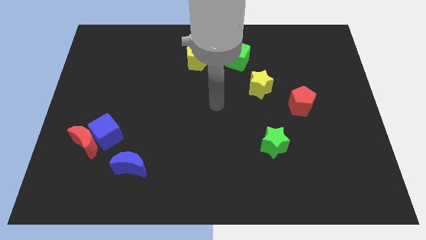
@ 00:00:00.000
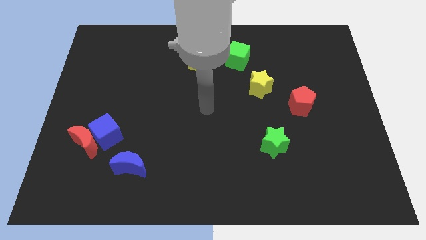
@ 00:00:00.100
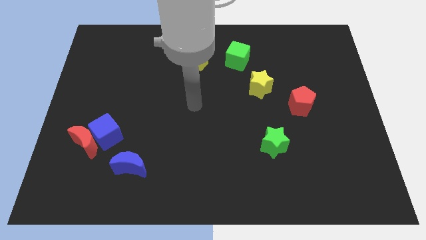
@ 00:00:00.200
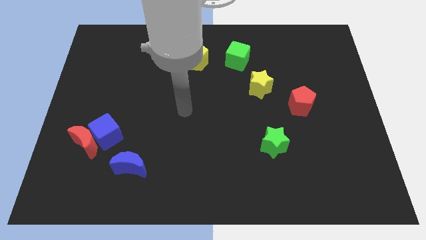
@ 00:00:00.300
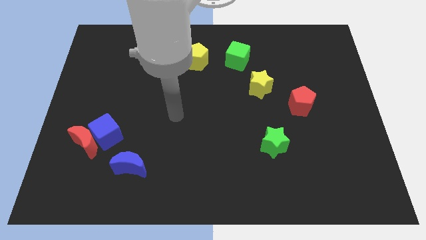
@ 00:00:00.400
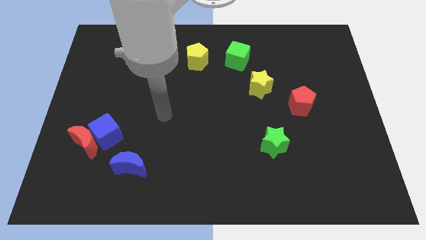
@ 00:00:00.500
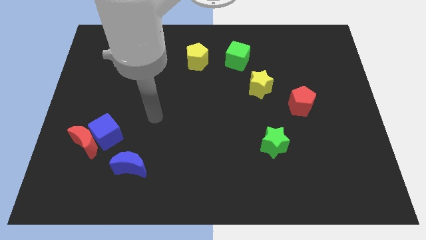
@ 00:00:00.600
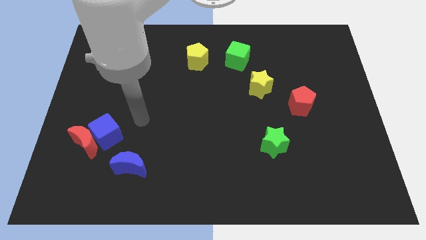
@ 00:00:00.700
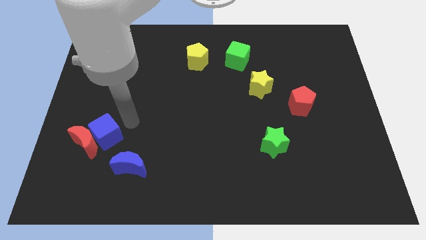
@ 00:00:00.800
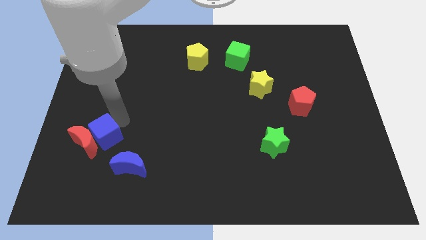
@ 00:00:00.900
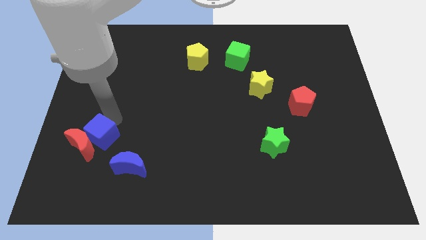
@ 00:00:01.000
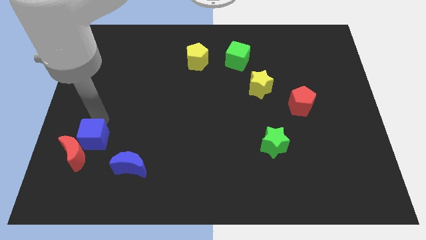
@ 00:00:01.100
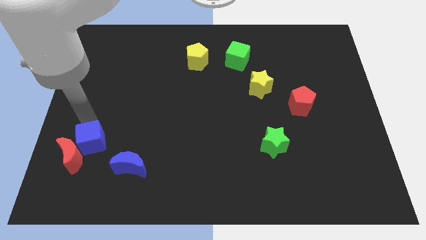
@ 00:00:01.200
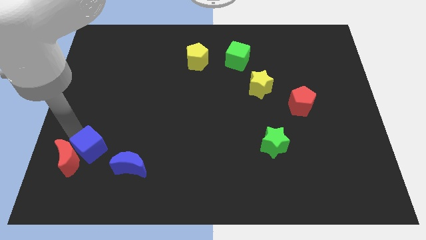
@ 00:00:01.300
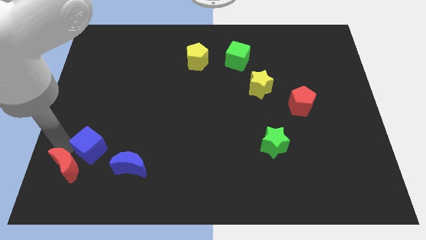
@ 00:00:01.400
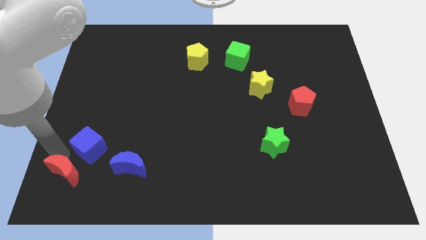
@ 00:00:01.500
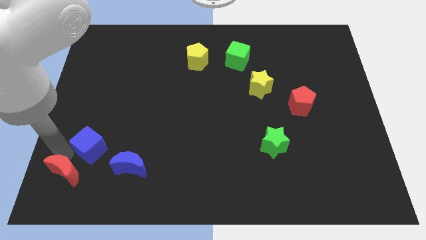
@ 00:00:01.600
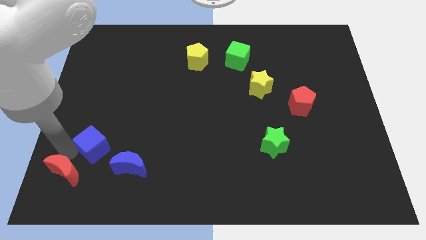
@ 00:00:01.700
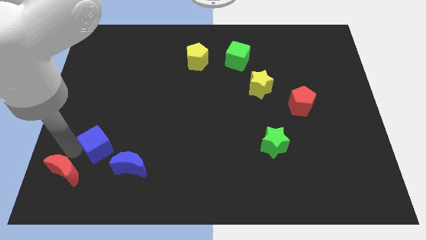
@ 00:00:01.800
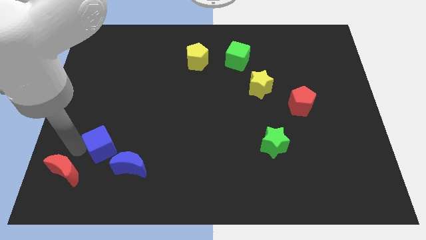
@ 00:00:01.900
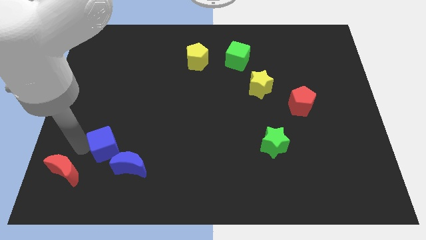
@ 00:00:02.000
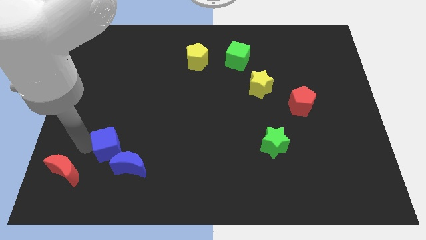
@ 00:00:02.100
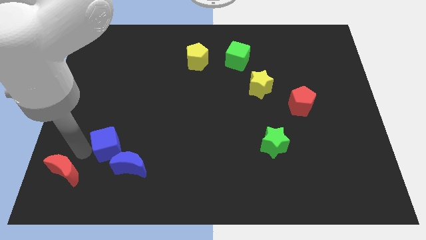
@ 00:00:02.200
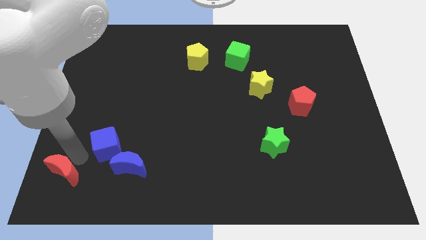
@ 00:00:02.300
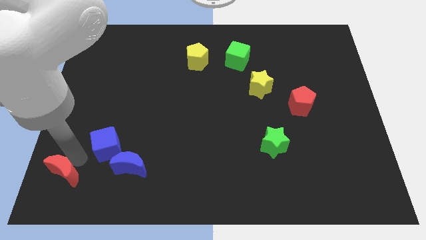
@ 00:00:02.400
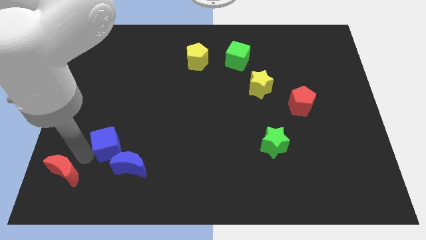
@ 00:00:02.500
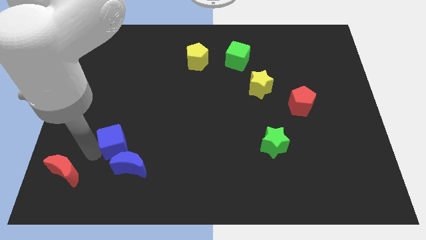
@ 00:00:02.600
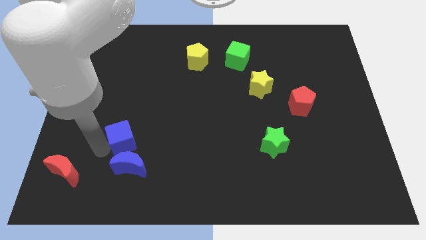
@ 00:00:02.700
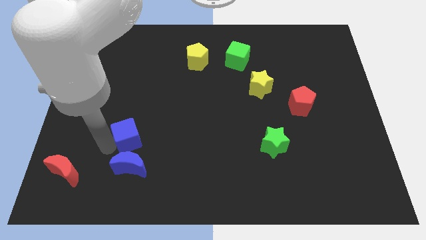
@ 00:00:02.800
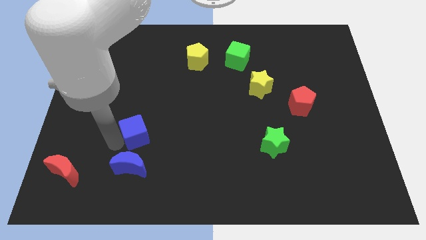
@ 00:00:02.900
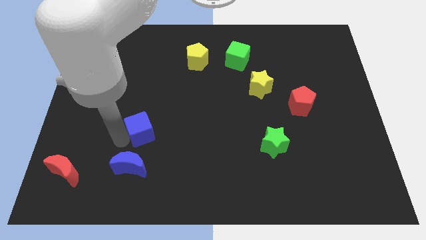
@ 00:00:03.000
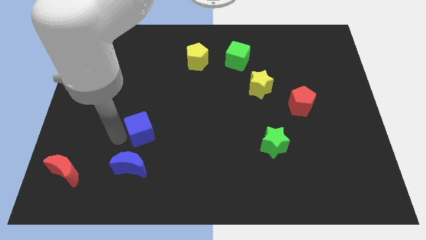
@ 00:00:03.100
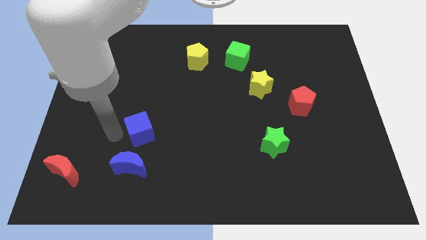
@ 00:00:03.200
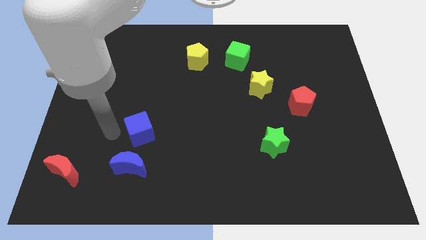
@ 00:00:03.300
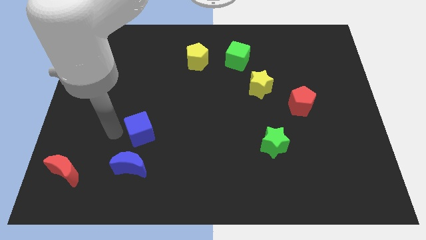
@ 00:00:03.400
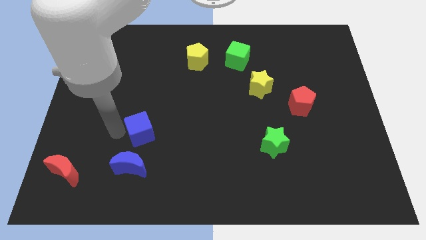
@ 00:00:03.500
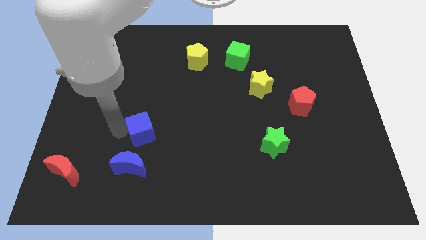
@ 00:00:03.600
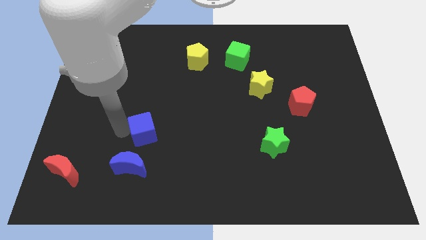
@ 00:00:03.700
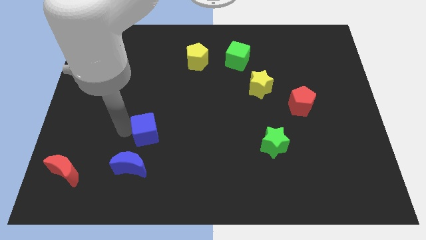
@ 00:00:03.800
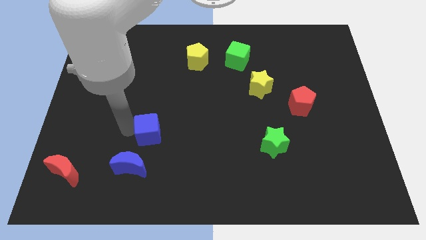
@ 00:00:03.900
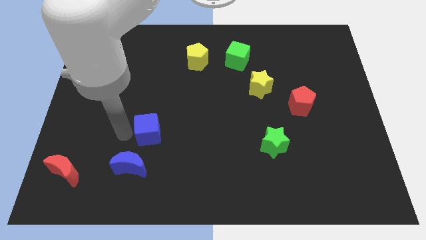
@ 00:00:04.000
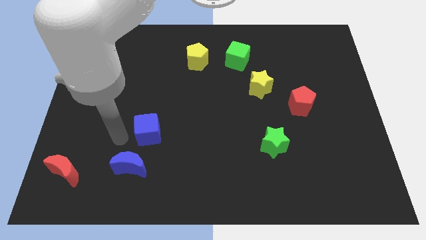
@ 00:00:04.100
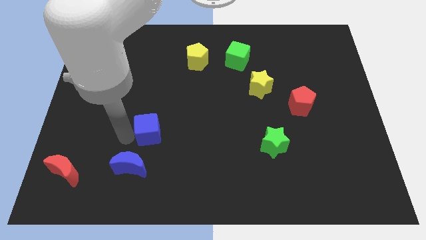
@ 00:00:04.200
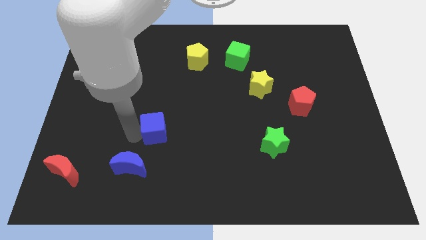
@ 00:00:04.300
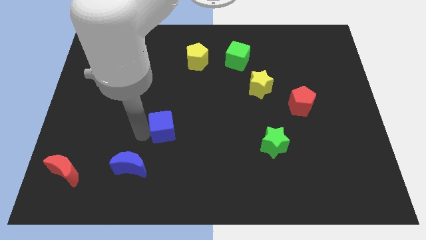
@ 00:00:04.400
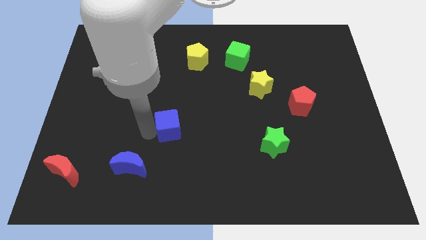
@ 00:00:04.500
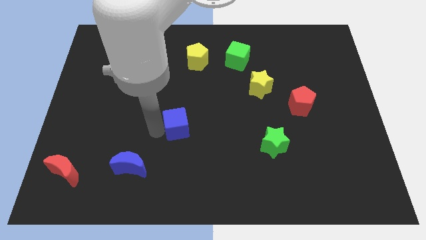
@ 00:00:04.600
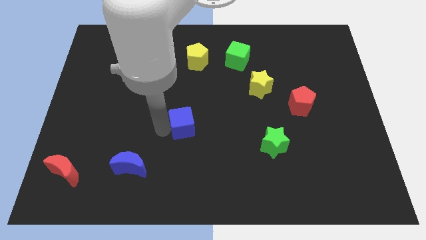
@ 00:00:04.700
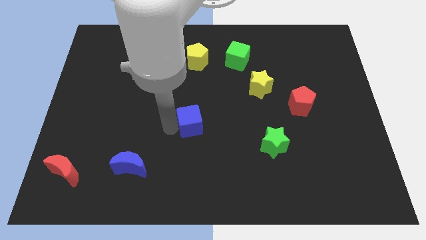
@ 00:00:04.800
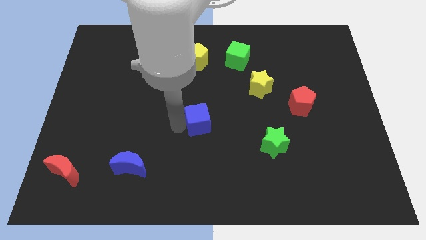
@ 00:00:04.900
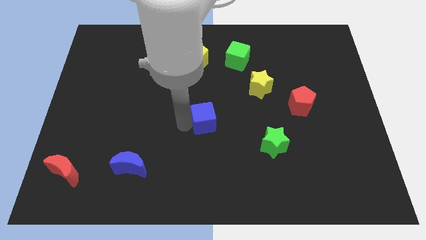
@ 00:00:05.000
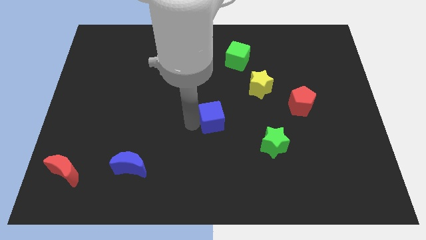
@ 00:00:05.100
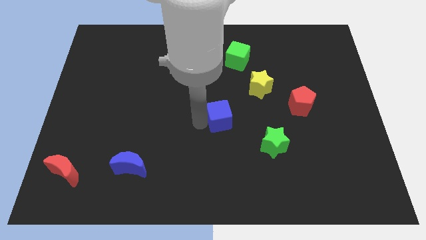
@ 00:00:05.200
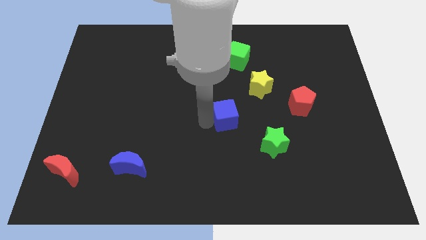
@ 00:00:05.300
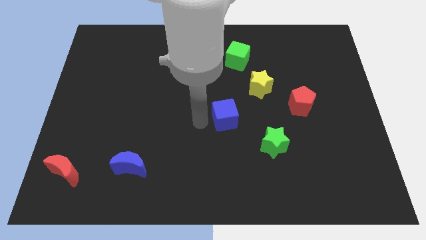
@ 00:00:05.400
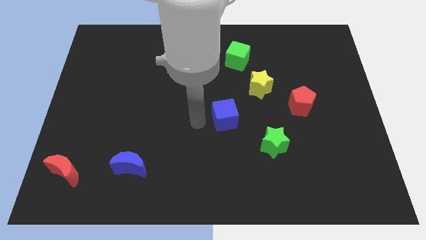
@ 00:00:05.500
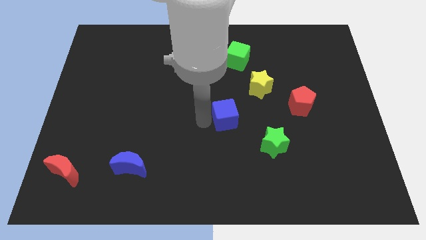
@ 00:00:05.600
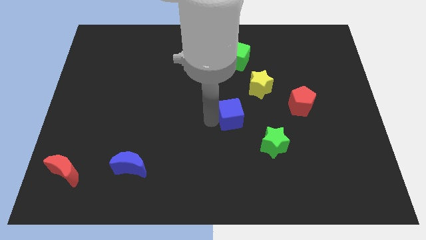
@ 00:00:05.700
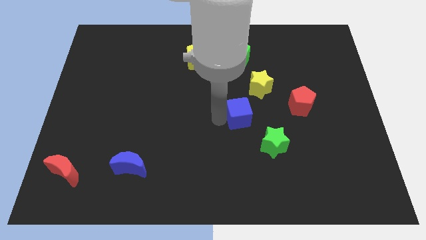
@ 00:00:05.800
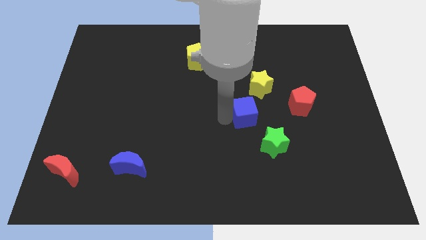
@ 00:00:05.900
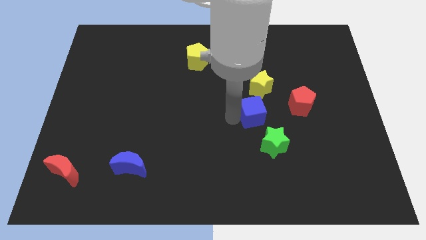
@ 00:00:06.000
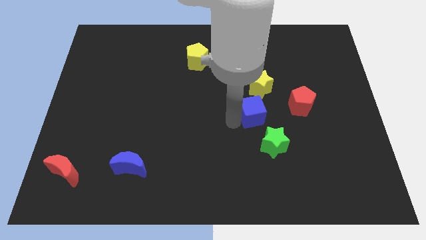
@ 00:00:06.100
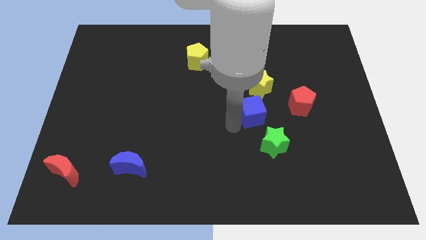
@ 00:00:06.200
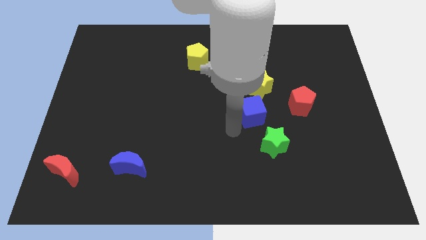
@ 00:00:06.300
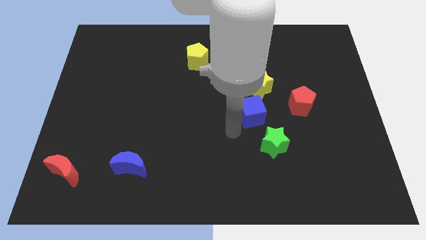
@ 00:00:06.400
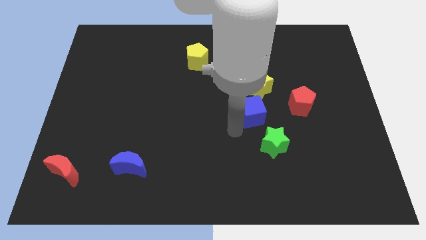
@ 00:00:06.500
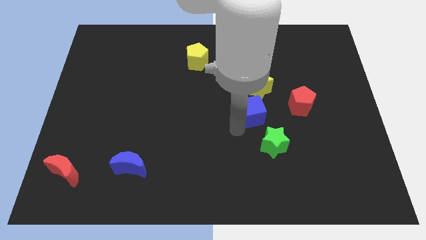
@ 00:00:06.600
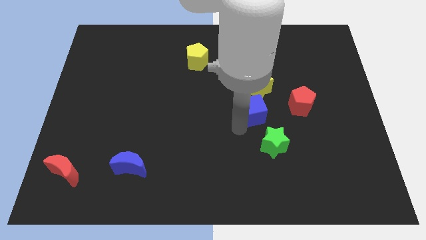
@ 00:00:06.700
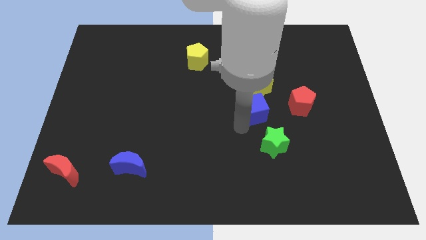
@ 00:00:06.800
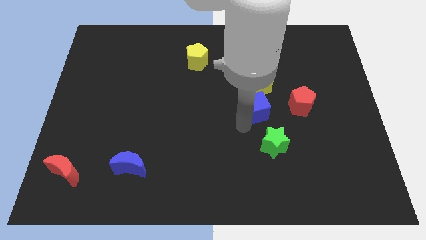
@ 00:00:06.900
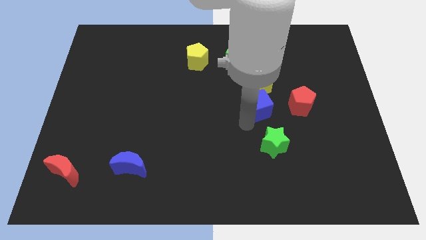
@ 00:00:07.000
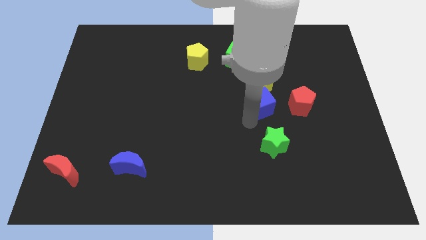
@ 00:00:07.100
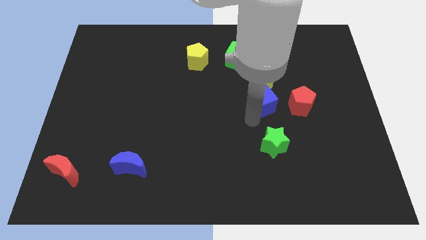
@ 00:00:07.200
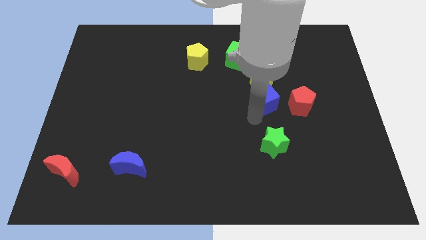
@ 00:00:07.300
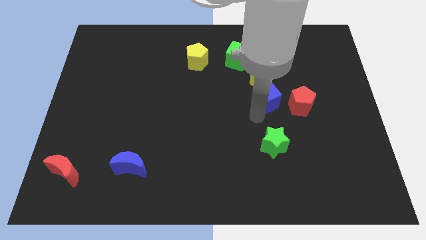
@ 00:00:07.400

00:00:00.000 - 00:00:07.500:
move the blue cube to the top left side of the red pentagon
